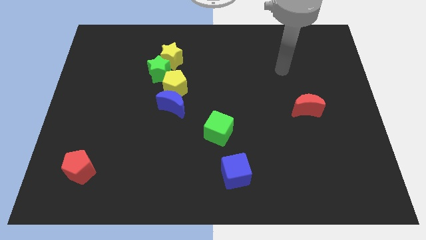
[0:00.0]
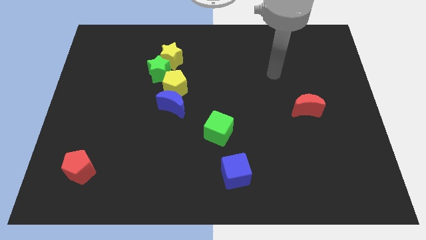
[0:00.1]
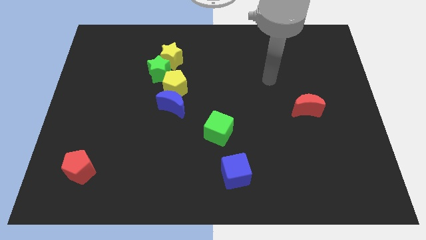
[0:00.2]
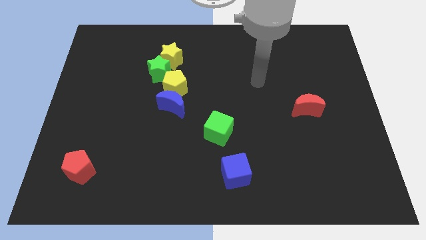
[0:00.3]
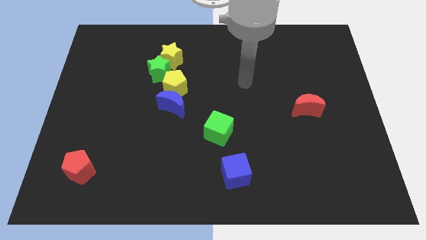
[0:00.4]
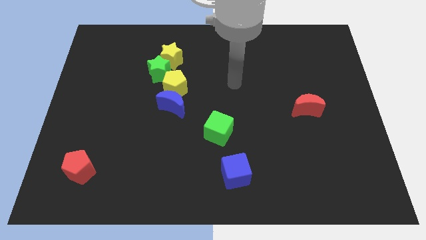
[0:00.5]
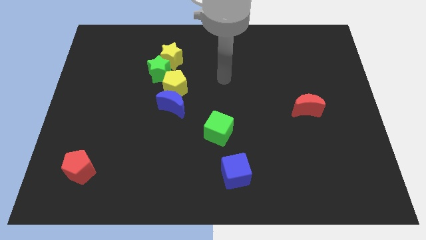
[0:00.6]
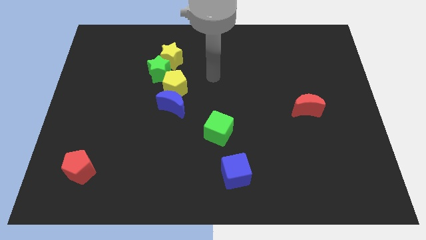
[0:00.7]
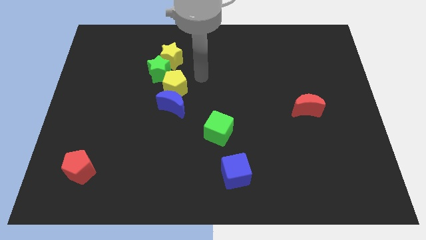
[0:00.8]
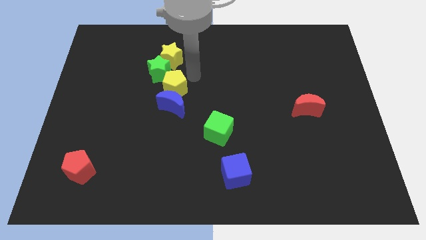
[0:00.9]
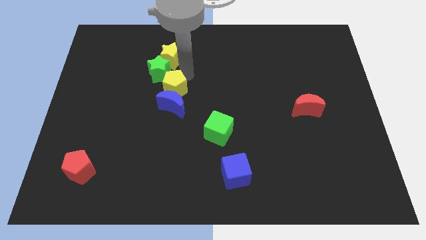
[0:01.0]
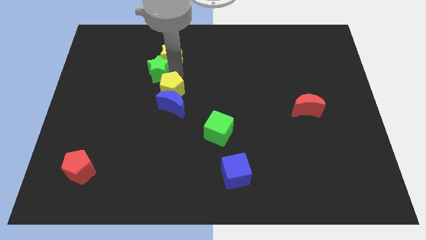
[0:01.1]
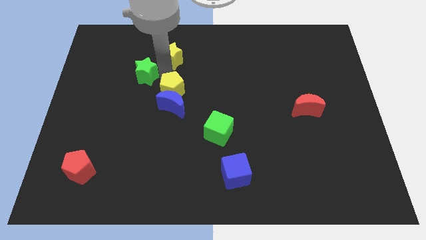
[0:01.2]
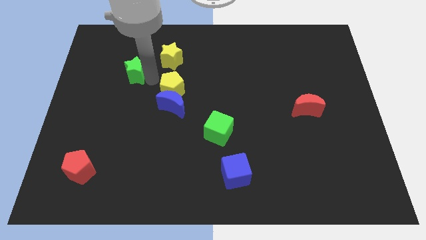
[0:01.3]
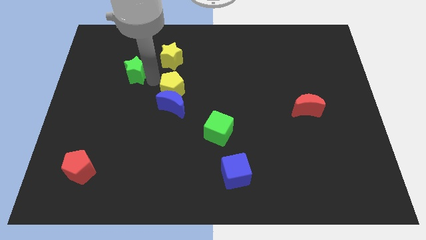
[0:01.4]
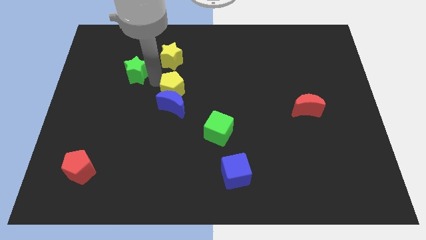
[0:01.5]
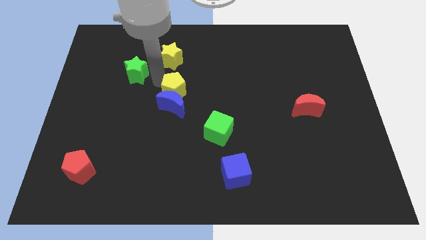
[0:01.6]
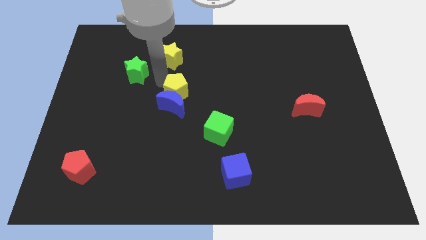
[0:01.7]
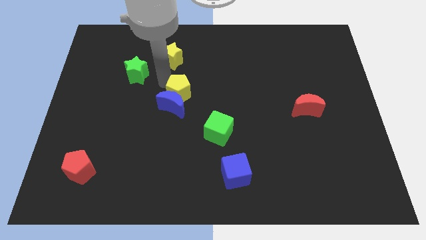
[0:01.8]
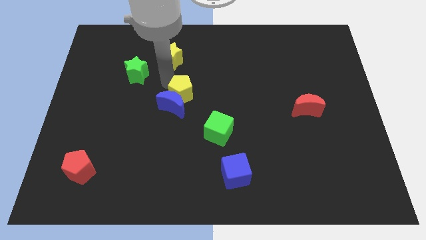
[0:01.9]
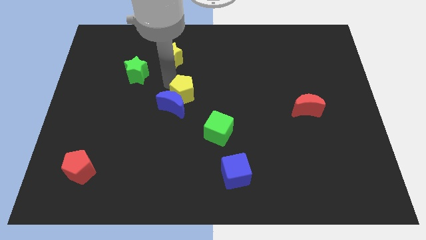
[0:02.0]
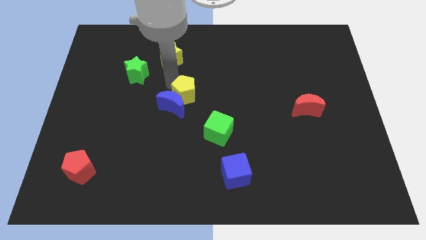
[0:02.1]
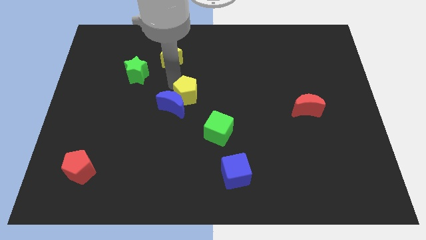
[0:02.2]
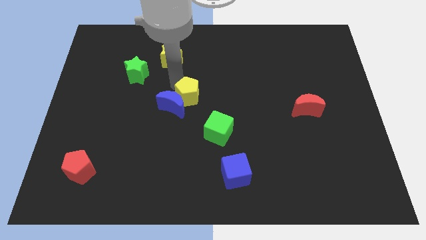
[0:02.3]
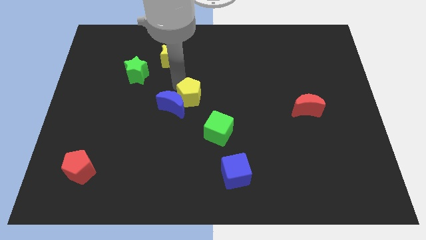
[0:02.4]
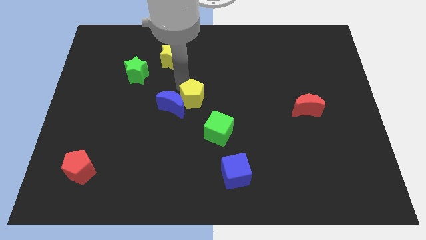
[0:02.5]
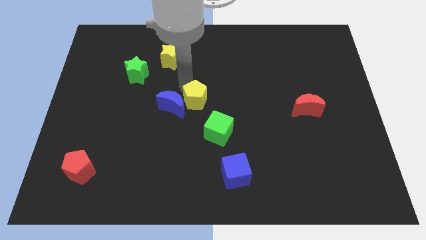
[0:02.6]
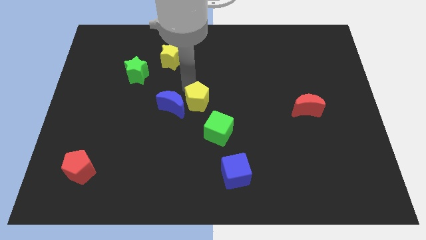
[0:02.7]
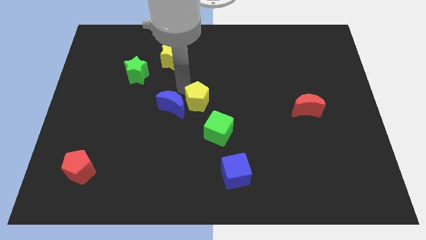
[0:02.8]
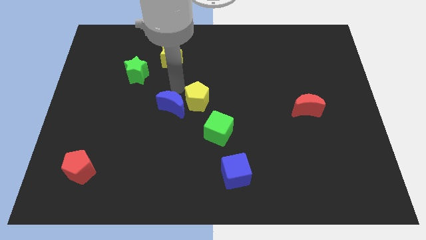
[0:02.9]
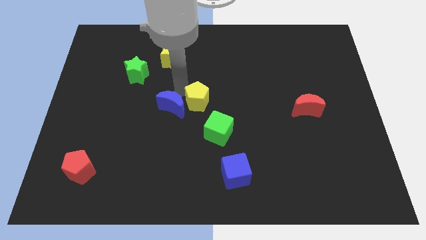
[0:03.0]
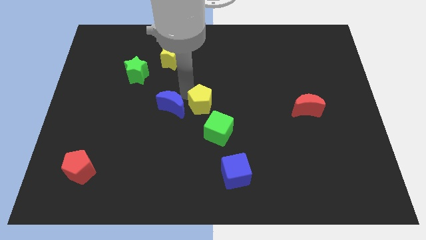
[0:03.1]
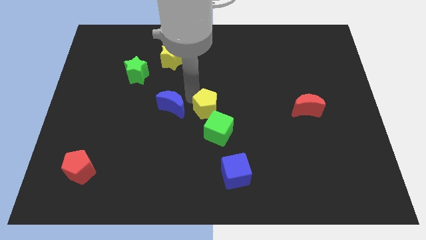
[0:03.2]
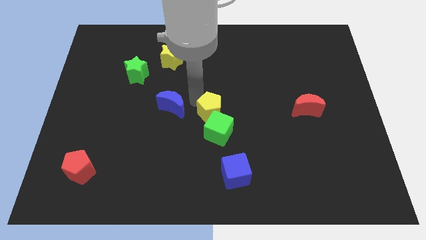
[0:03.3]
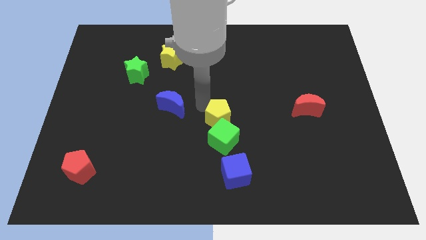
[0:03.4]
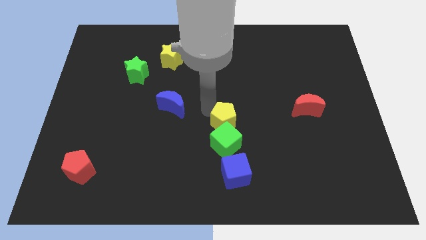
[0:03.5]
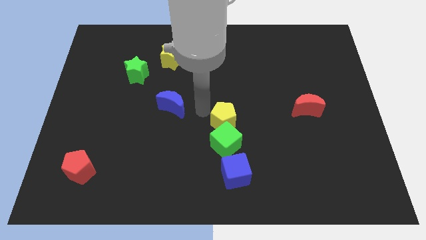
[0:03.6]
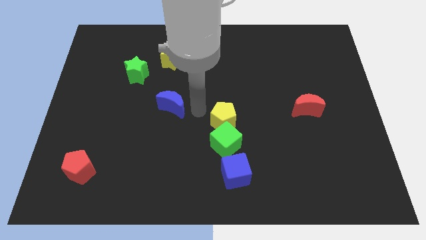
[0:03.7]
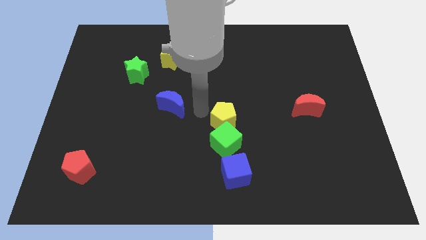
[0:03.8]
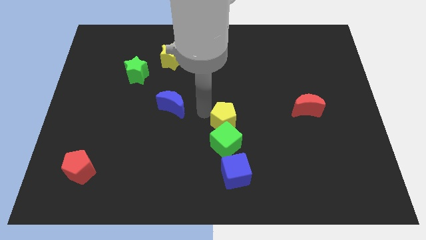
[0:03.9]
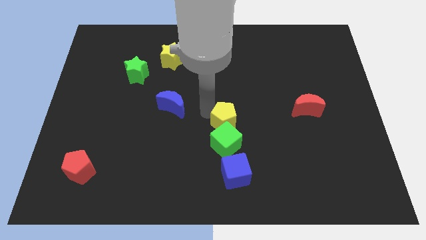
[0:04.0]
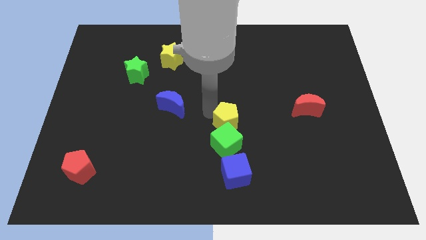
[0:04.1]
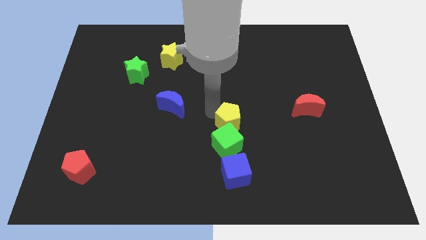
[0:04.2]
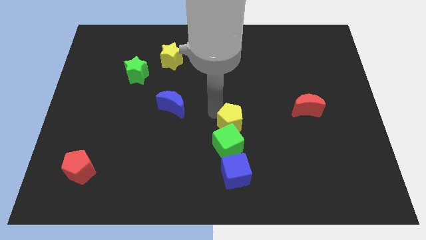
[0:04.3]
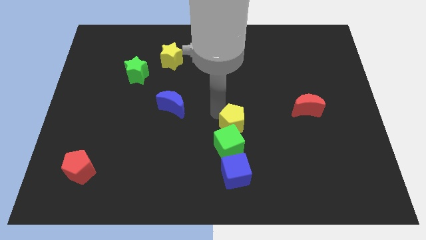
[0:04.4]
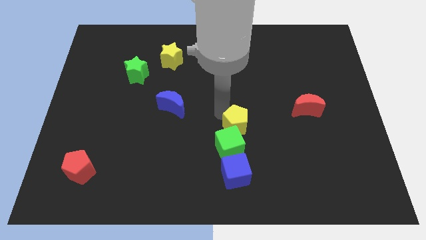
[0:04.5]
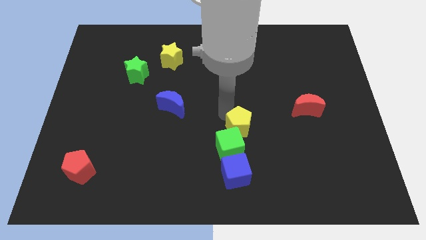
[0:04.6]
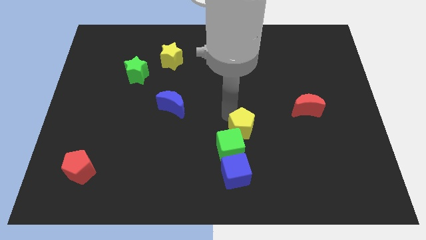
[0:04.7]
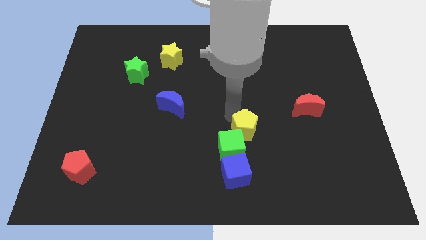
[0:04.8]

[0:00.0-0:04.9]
move the yellow pentagon down and to the right diagonally

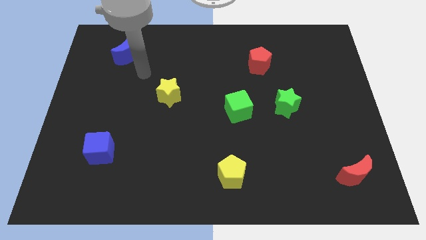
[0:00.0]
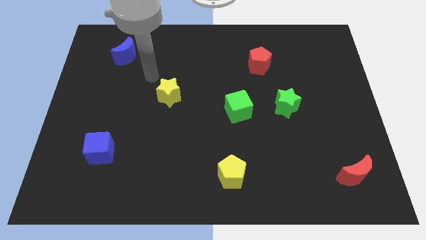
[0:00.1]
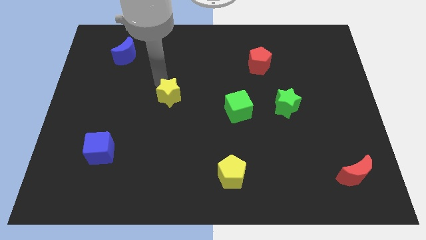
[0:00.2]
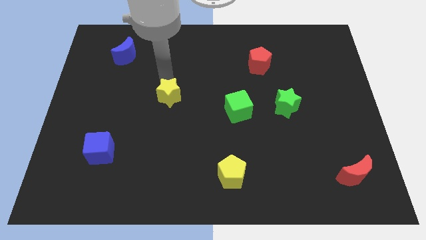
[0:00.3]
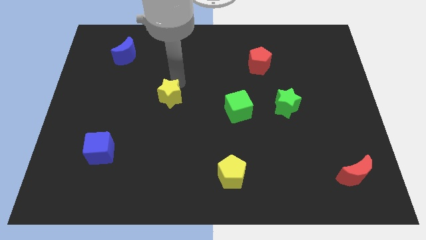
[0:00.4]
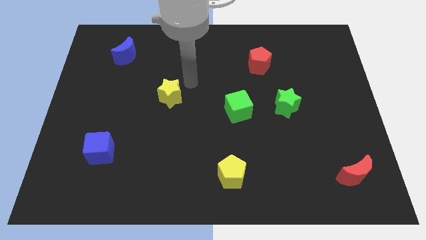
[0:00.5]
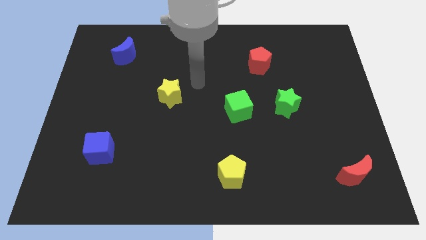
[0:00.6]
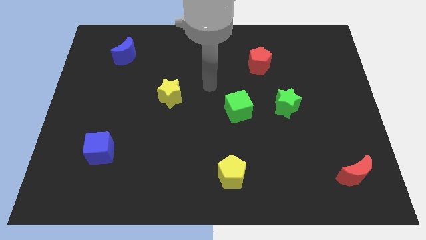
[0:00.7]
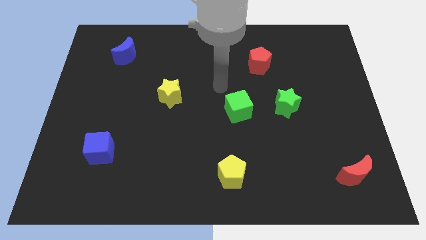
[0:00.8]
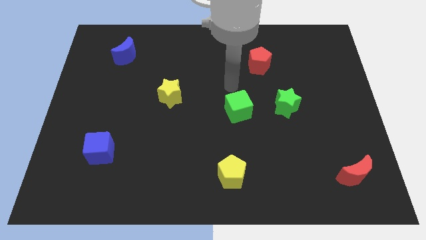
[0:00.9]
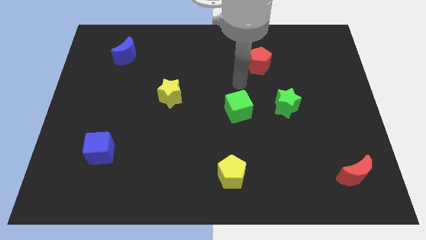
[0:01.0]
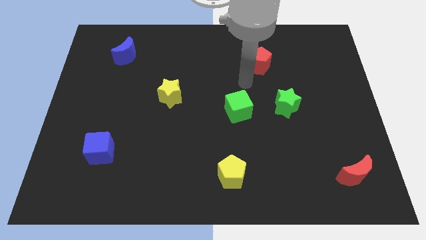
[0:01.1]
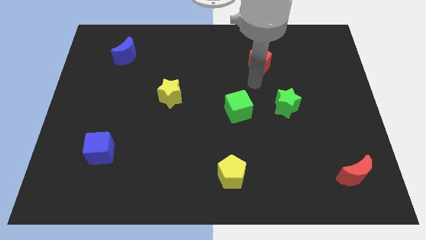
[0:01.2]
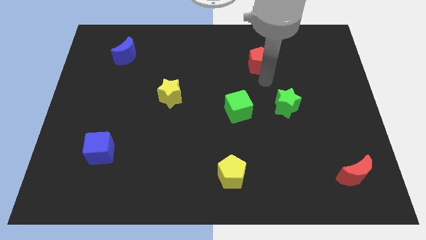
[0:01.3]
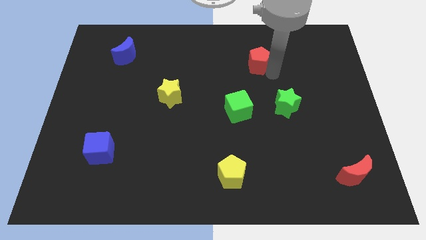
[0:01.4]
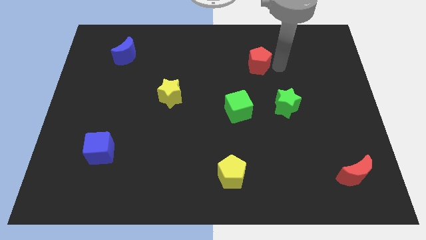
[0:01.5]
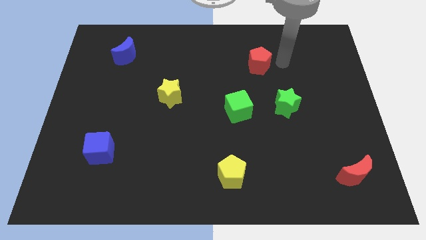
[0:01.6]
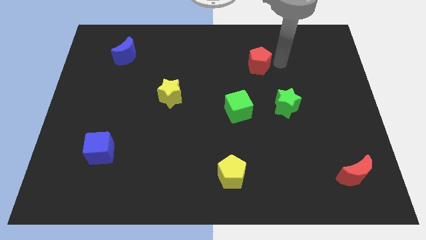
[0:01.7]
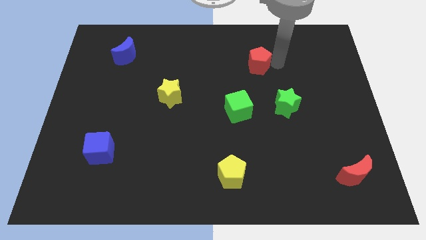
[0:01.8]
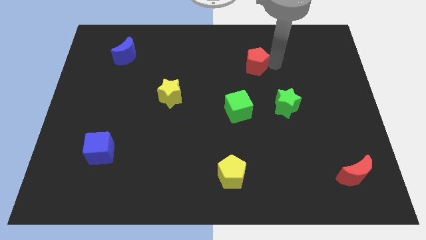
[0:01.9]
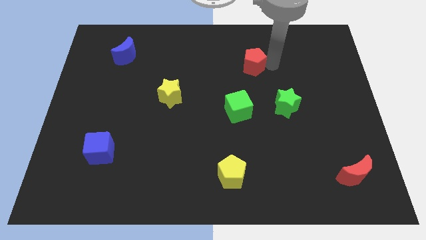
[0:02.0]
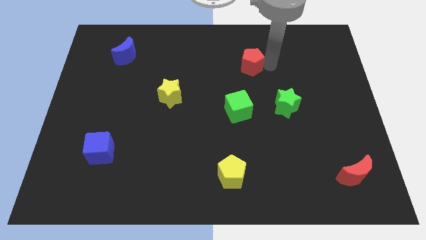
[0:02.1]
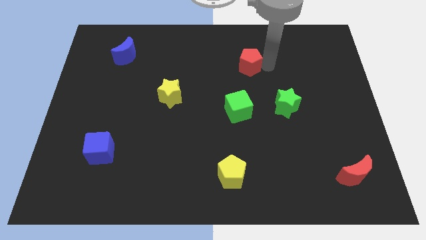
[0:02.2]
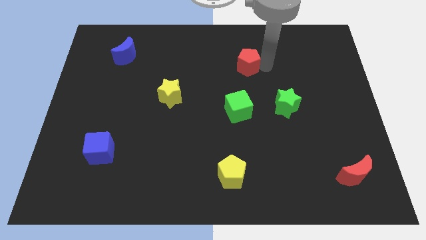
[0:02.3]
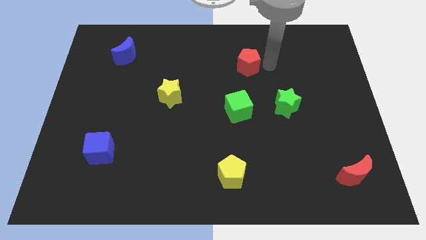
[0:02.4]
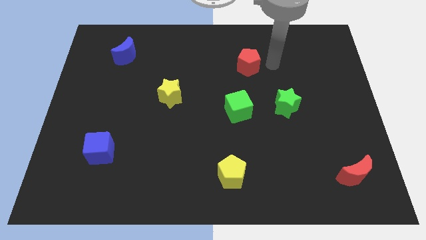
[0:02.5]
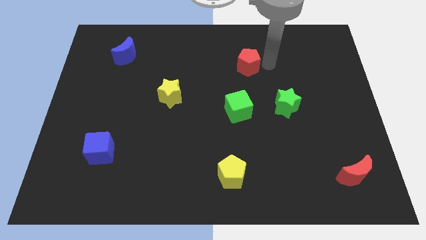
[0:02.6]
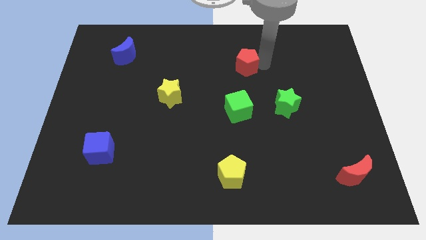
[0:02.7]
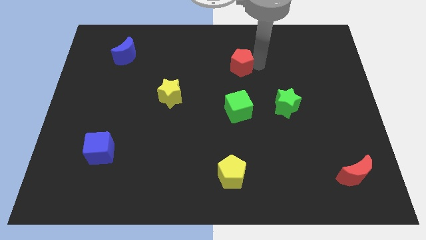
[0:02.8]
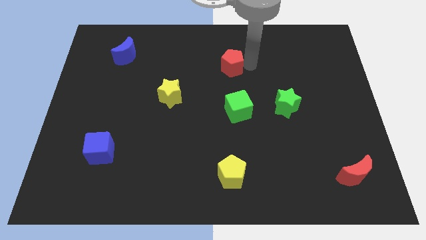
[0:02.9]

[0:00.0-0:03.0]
slide the red pentagon slightly to the left

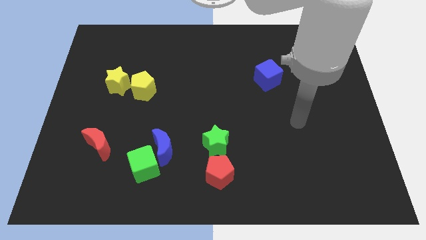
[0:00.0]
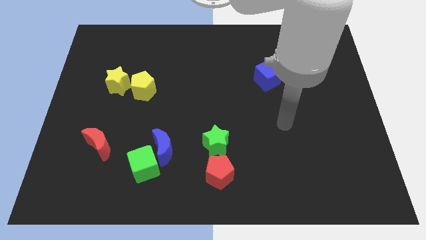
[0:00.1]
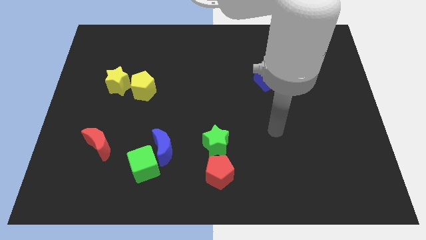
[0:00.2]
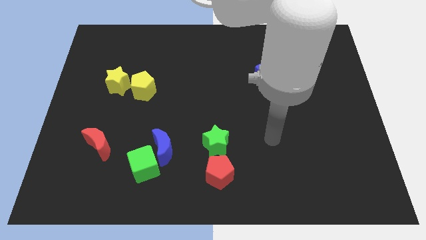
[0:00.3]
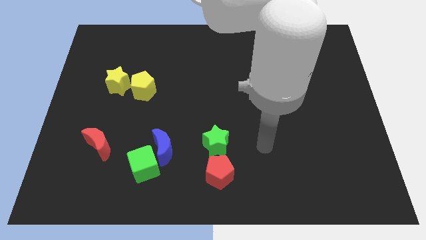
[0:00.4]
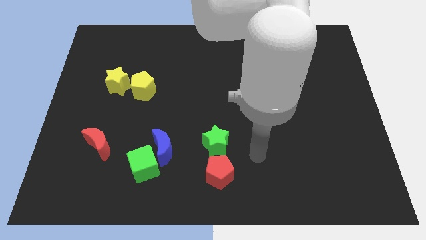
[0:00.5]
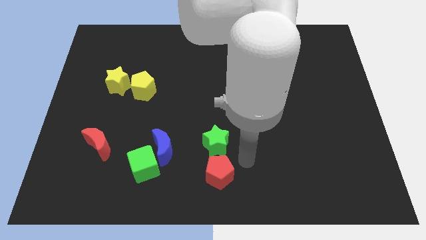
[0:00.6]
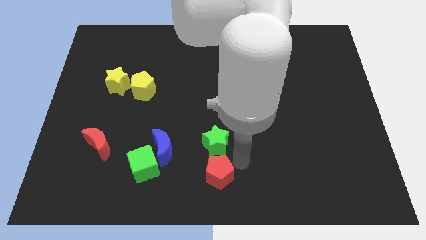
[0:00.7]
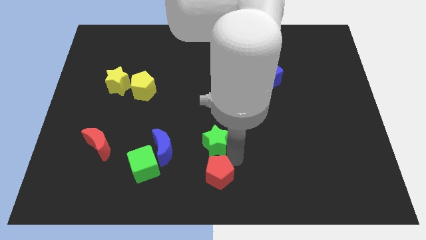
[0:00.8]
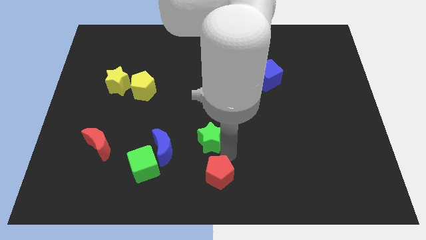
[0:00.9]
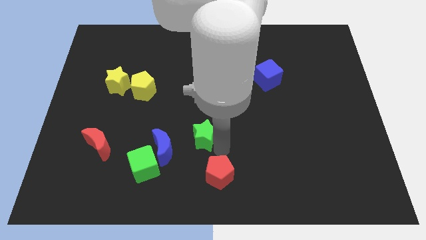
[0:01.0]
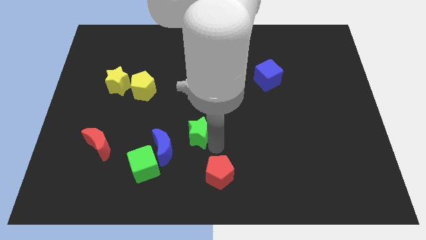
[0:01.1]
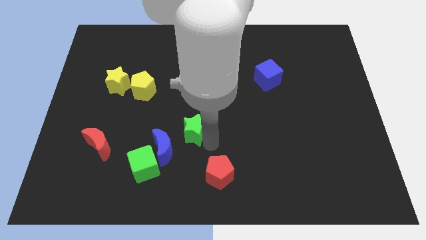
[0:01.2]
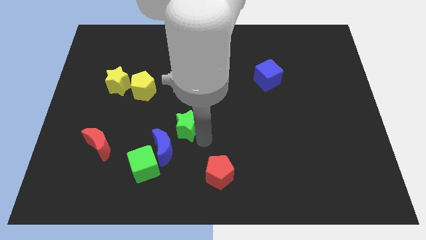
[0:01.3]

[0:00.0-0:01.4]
slightly slide the green star up and to the left diagonally
